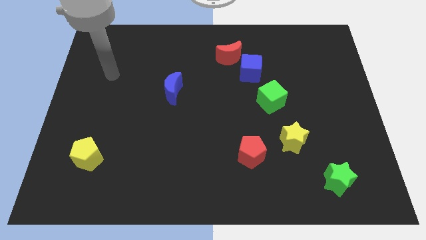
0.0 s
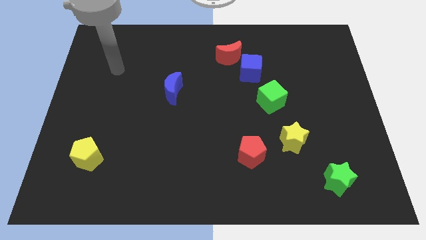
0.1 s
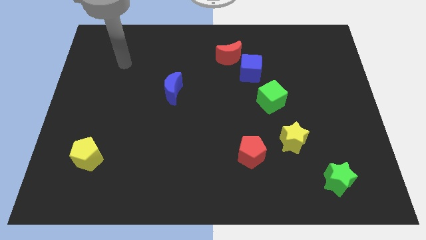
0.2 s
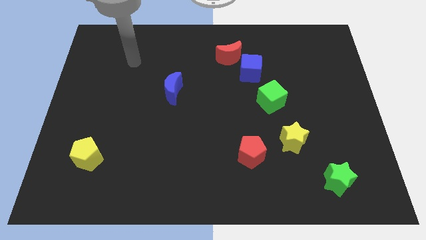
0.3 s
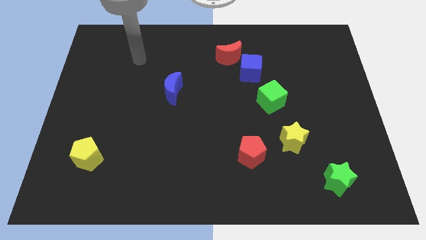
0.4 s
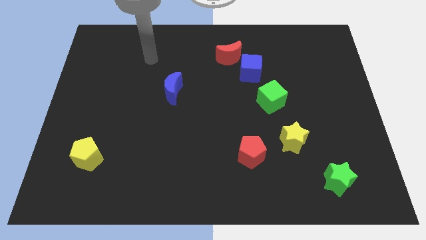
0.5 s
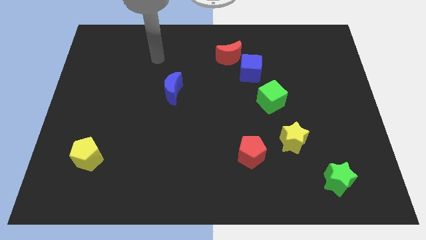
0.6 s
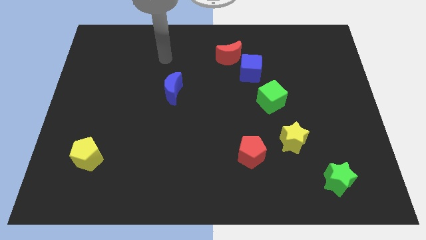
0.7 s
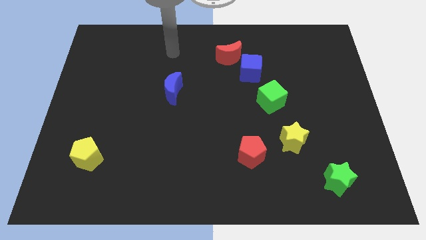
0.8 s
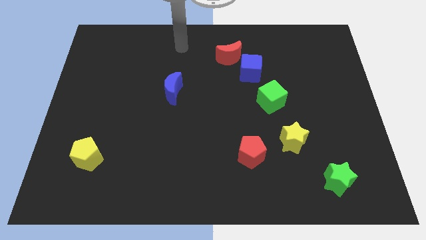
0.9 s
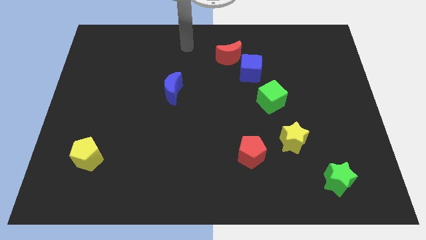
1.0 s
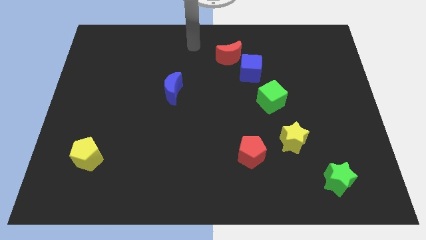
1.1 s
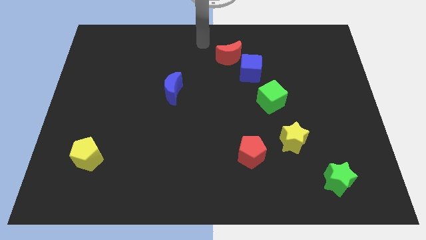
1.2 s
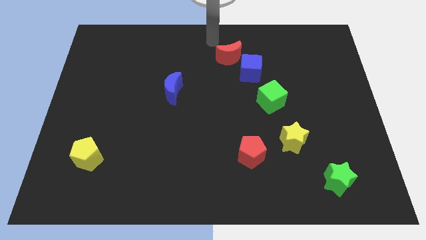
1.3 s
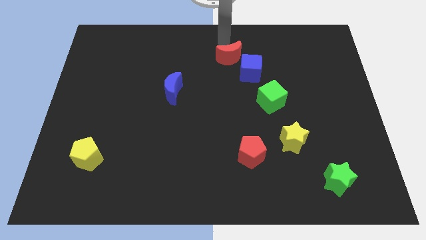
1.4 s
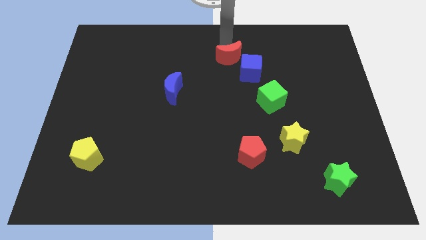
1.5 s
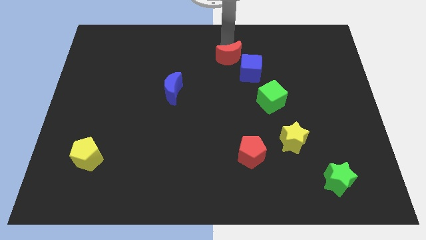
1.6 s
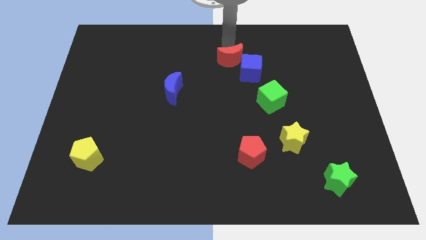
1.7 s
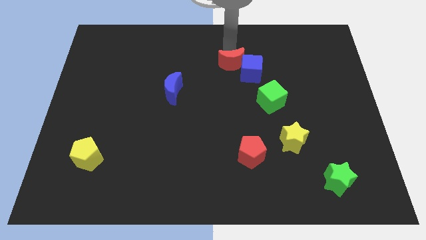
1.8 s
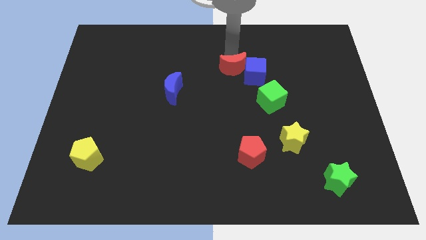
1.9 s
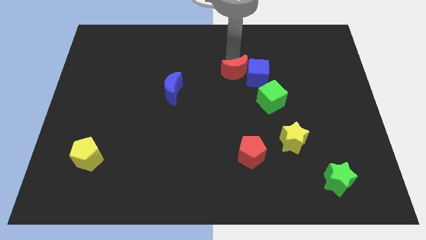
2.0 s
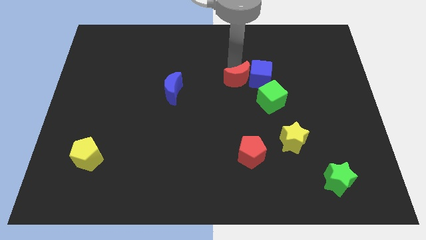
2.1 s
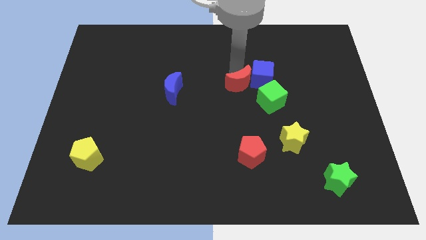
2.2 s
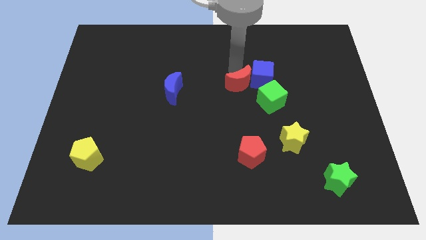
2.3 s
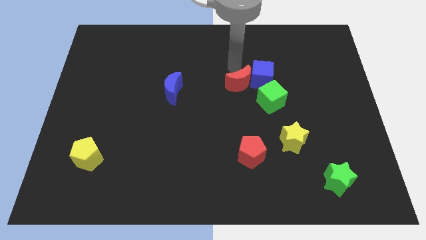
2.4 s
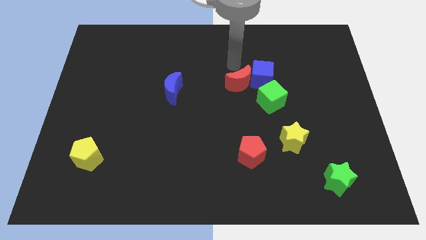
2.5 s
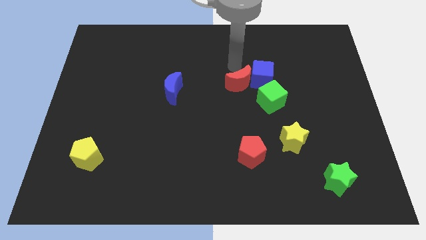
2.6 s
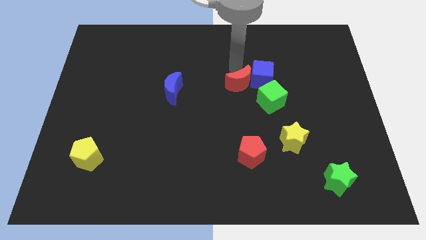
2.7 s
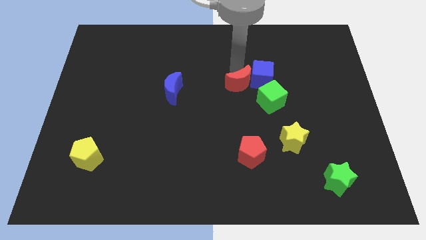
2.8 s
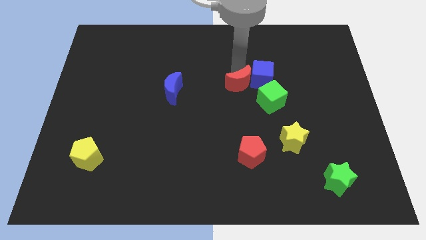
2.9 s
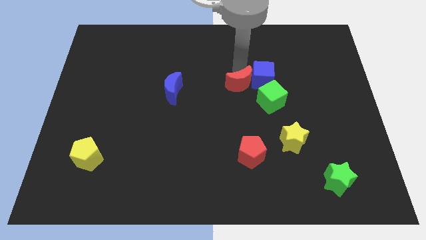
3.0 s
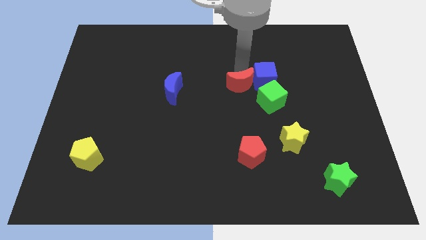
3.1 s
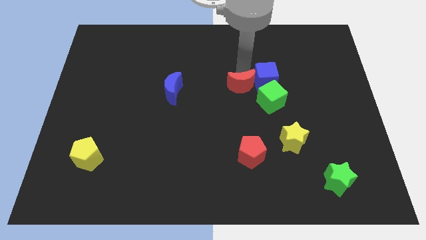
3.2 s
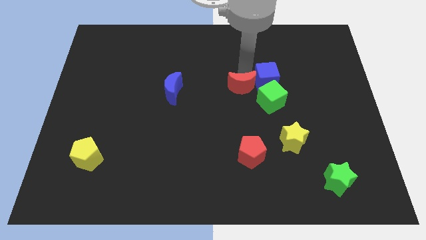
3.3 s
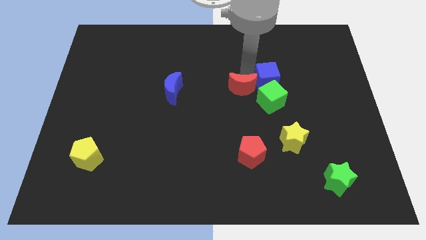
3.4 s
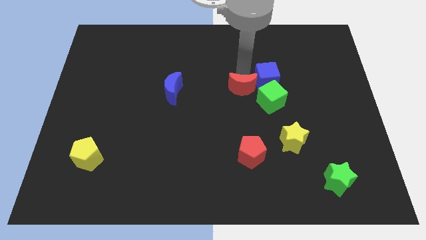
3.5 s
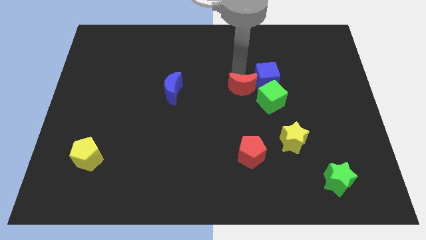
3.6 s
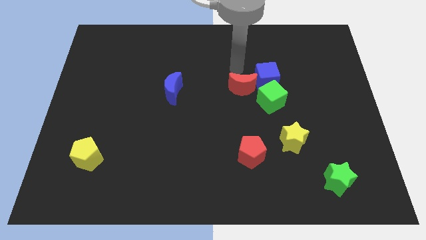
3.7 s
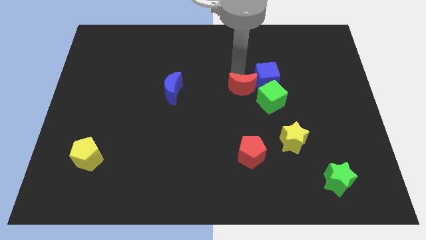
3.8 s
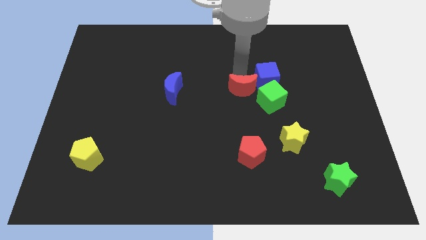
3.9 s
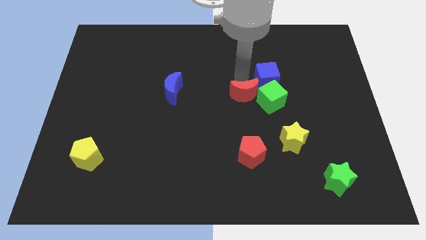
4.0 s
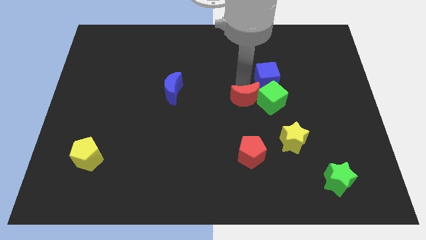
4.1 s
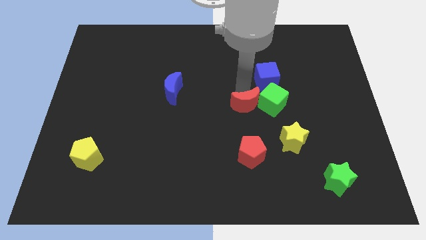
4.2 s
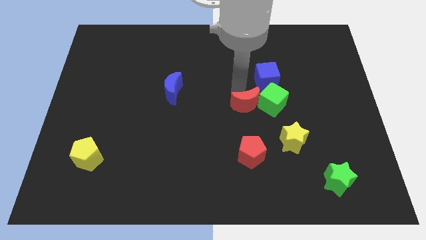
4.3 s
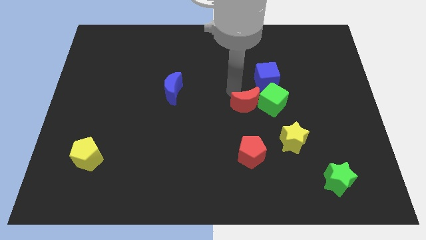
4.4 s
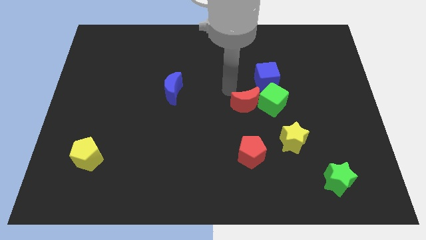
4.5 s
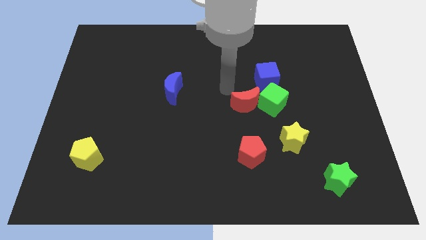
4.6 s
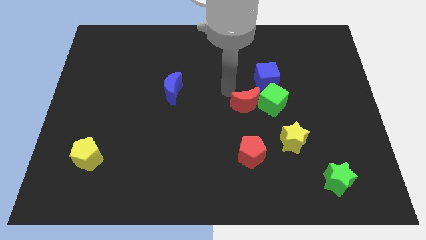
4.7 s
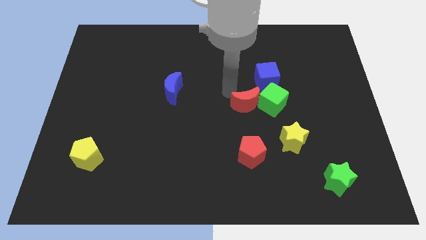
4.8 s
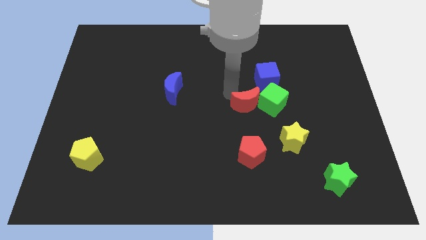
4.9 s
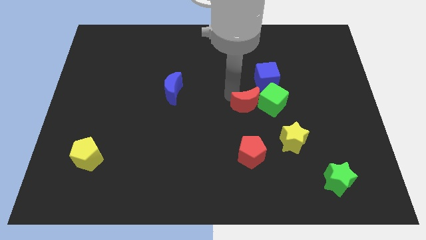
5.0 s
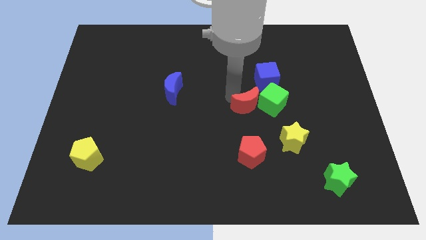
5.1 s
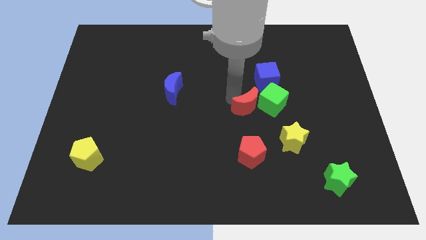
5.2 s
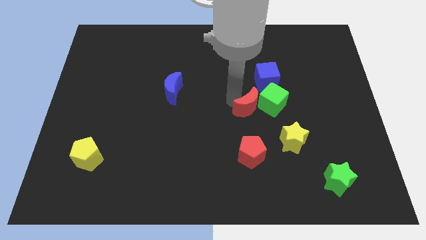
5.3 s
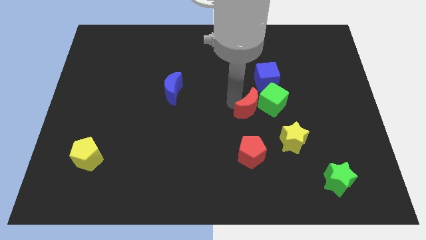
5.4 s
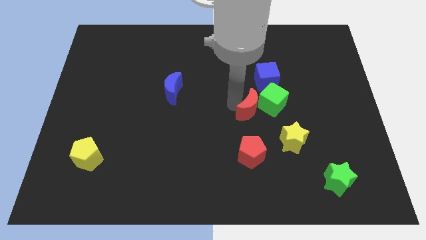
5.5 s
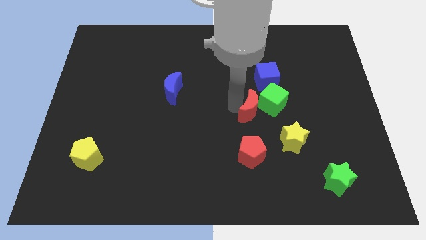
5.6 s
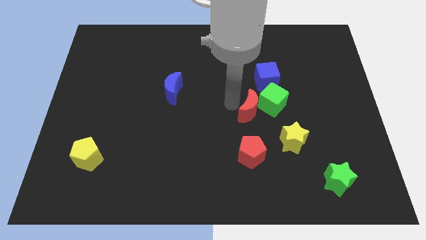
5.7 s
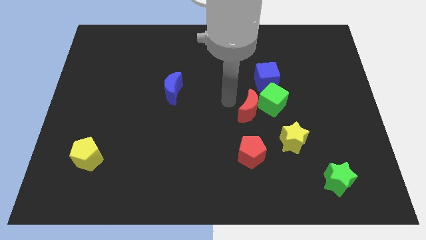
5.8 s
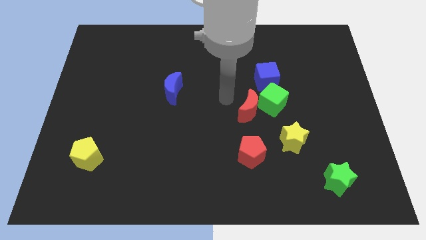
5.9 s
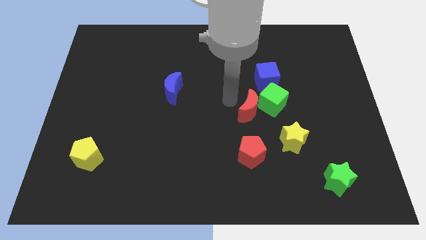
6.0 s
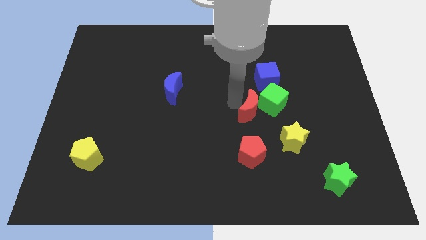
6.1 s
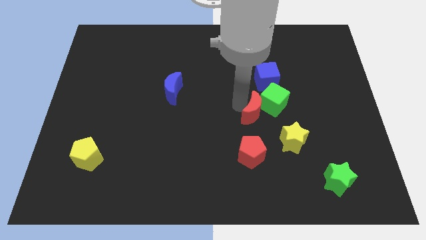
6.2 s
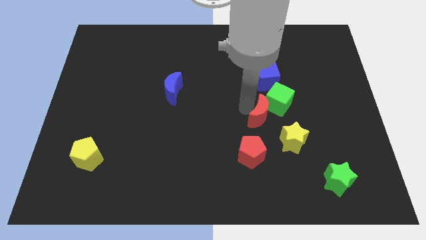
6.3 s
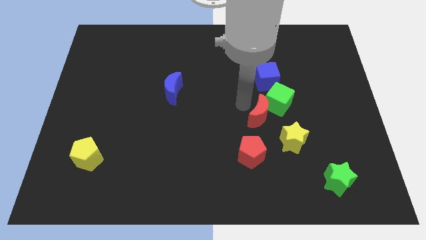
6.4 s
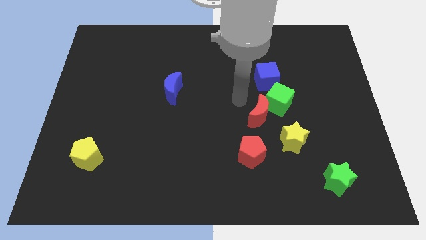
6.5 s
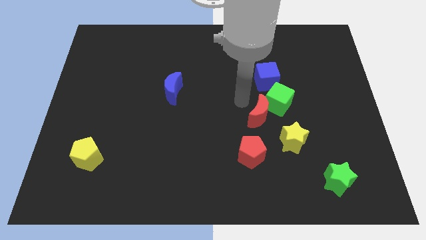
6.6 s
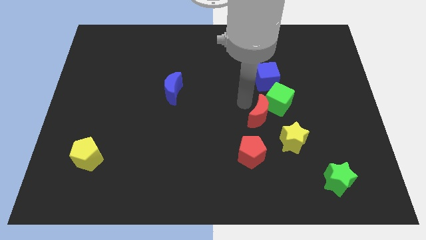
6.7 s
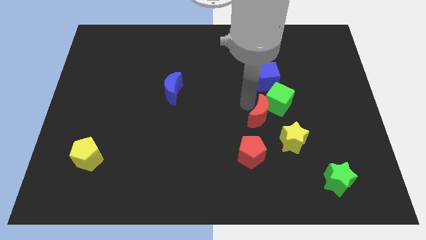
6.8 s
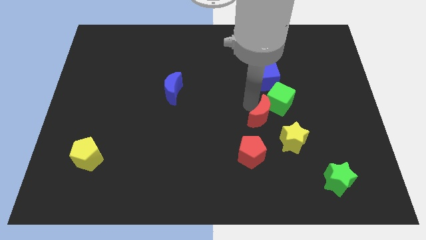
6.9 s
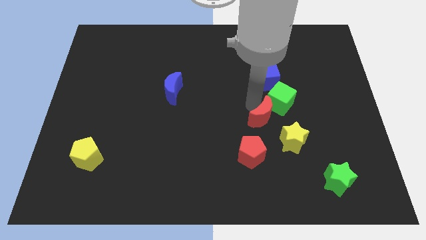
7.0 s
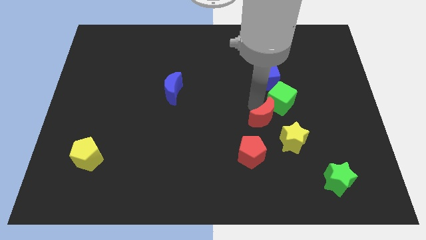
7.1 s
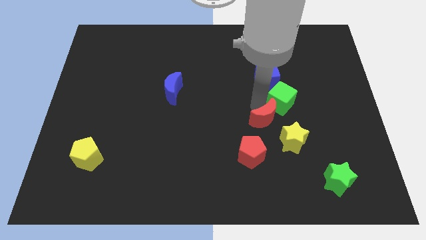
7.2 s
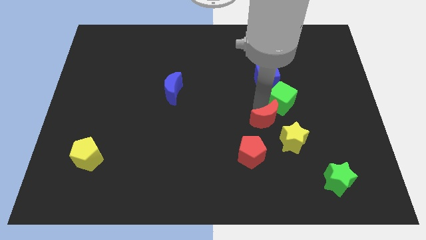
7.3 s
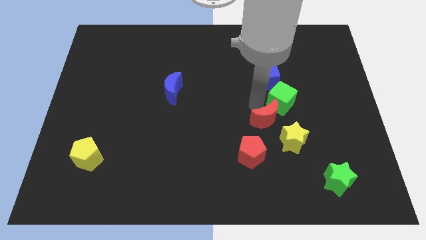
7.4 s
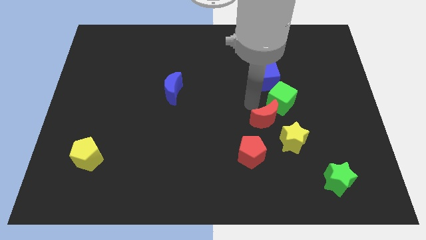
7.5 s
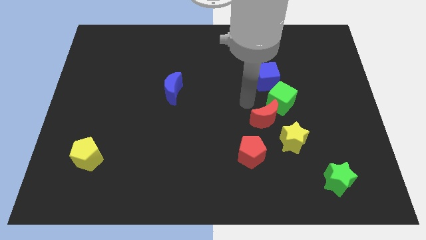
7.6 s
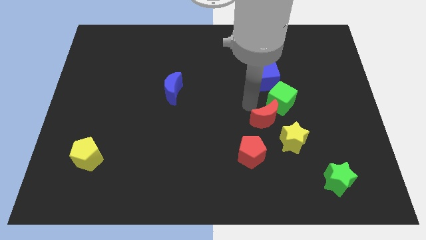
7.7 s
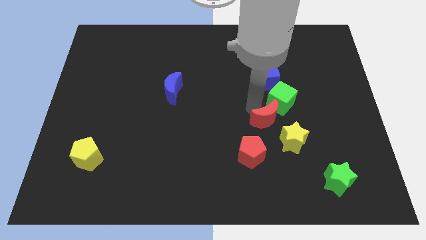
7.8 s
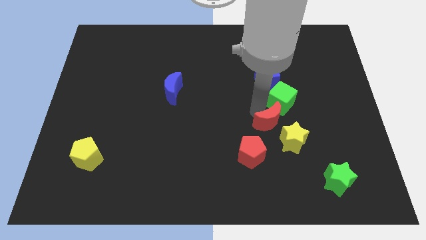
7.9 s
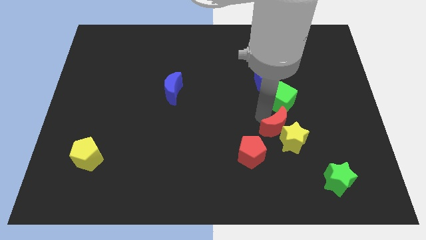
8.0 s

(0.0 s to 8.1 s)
move the red moon towards the yellow star
